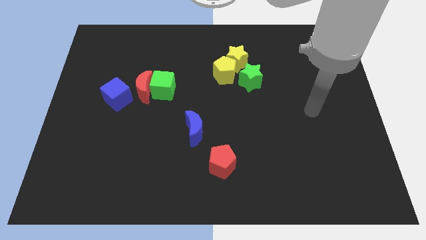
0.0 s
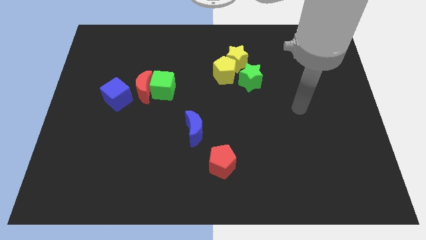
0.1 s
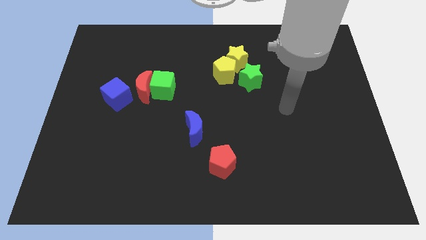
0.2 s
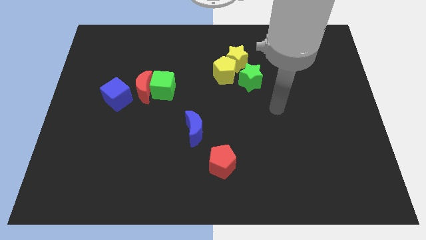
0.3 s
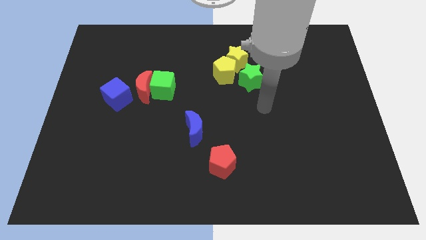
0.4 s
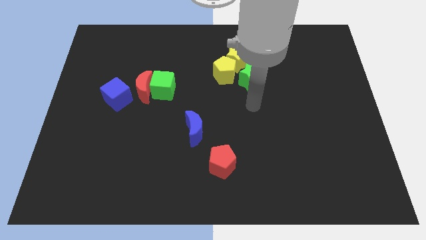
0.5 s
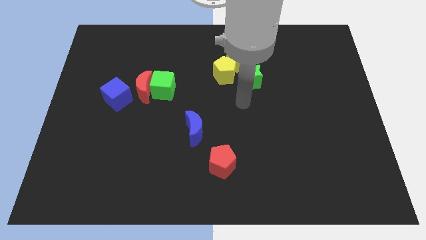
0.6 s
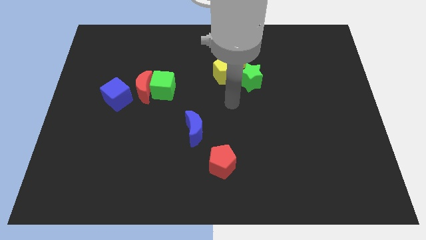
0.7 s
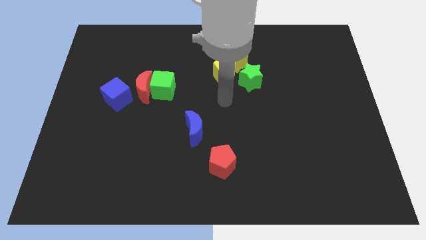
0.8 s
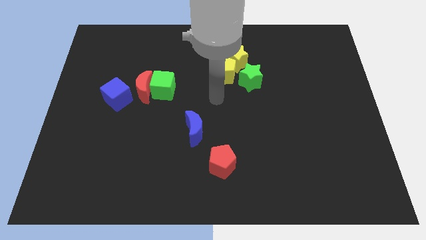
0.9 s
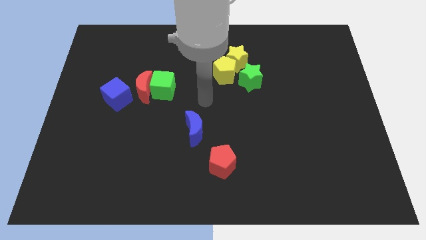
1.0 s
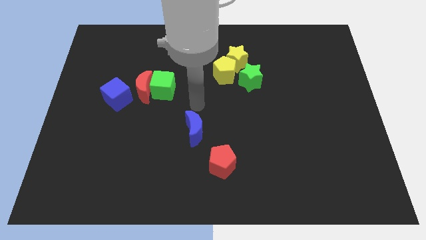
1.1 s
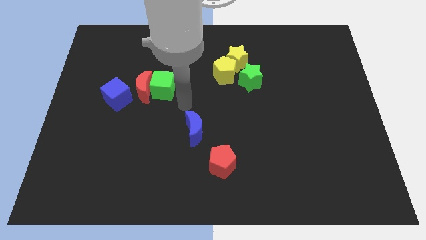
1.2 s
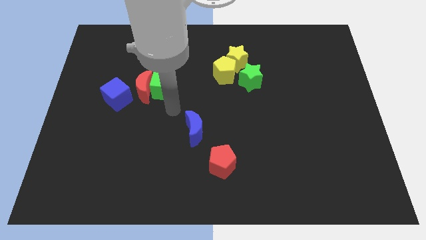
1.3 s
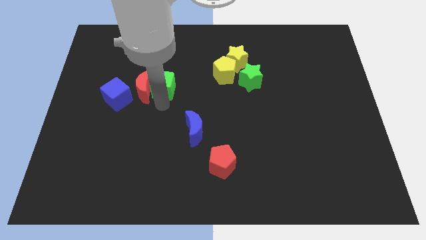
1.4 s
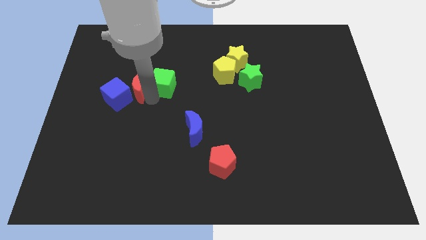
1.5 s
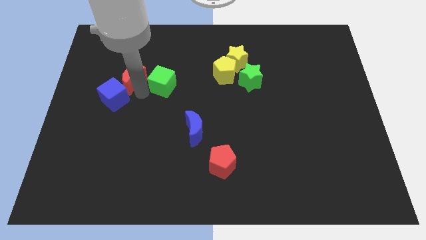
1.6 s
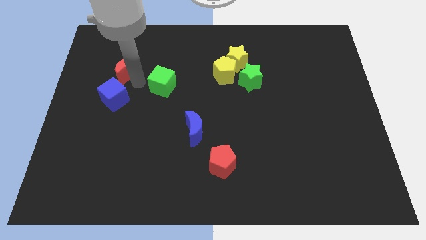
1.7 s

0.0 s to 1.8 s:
separate the green cube from the red moon

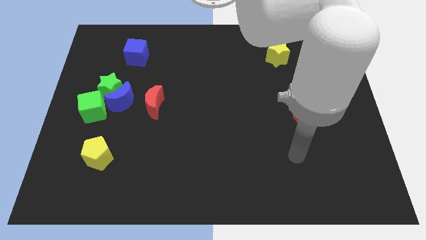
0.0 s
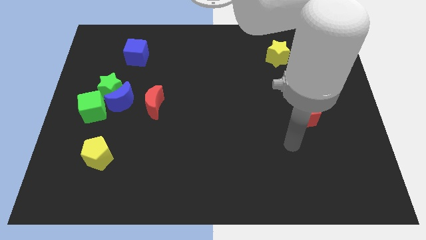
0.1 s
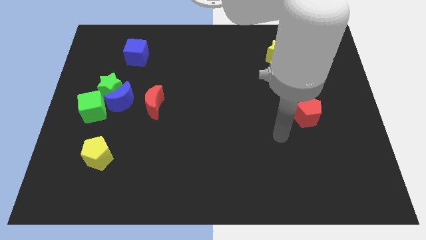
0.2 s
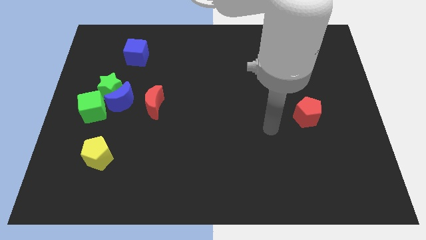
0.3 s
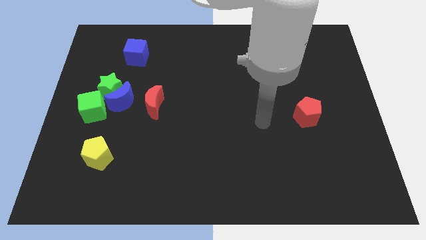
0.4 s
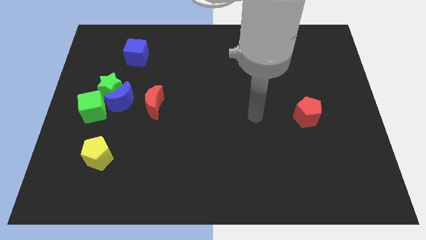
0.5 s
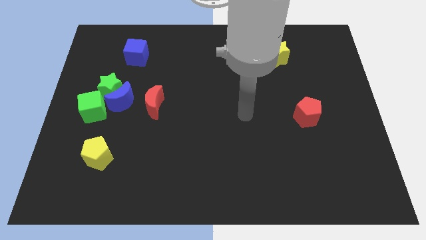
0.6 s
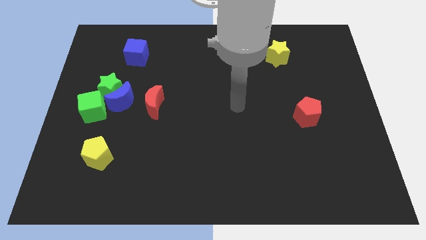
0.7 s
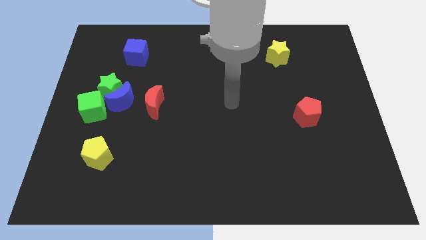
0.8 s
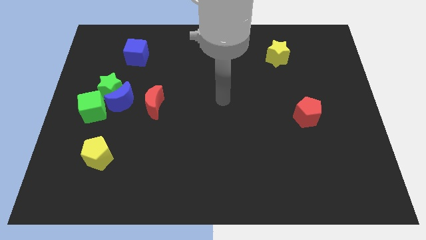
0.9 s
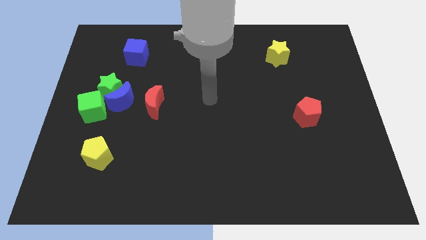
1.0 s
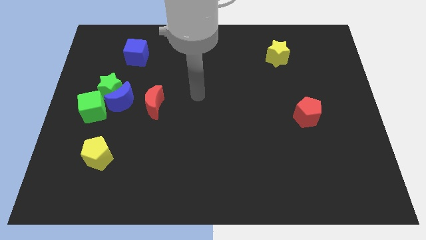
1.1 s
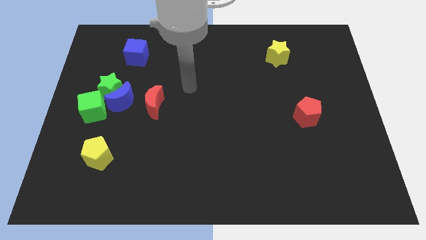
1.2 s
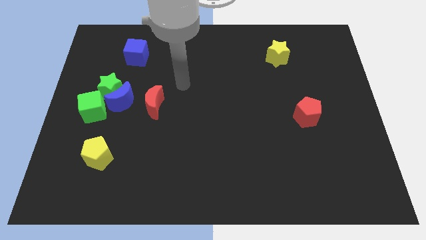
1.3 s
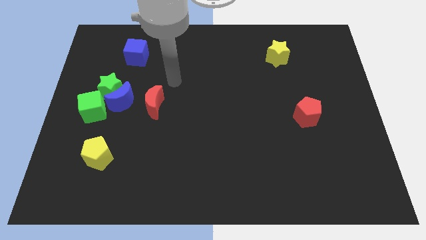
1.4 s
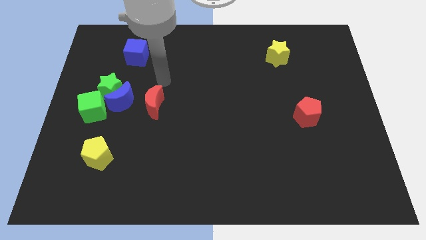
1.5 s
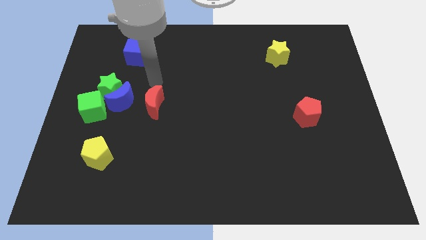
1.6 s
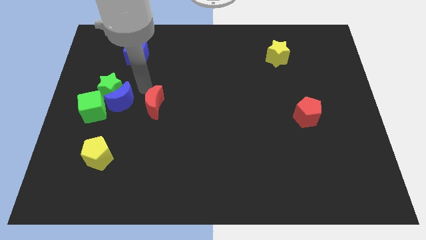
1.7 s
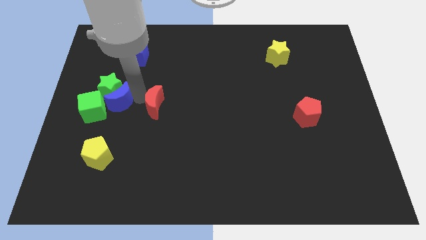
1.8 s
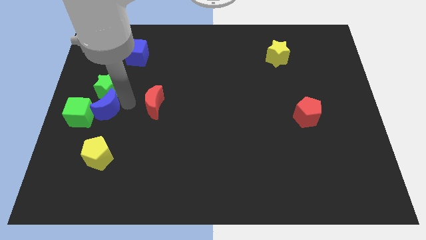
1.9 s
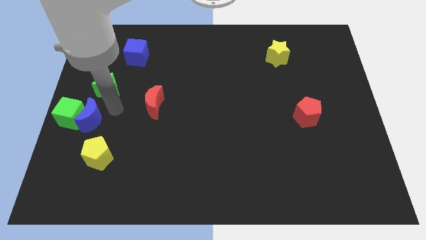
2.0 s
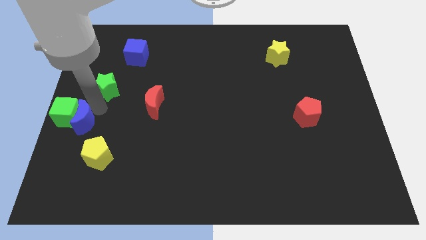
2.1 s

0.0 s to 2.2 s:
move the green star away from the blue moon and green cube

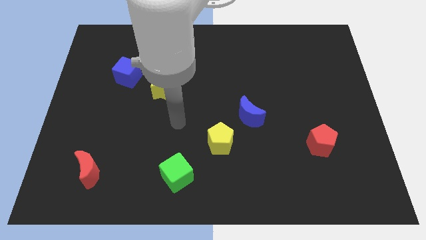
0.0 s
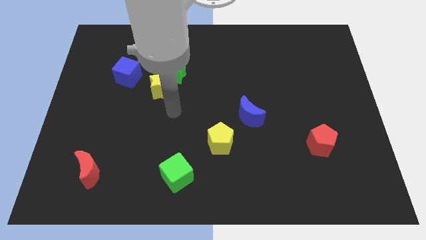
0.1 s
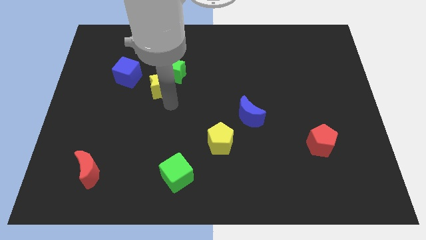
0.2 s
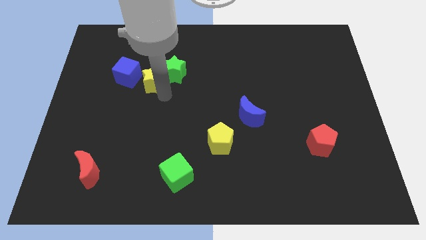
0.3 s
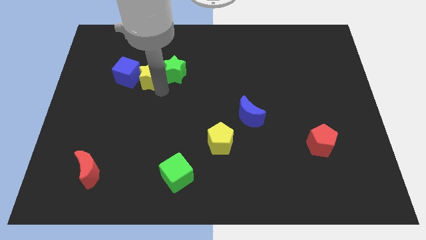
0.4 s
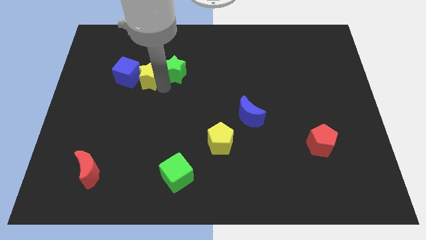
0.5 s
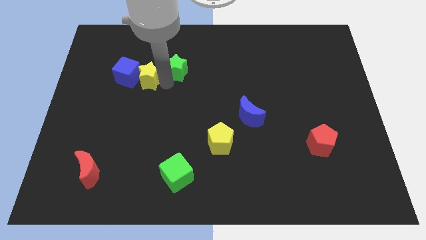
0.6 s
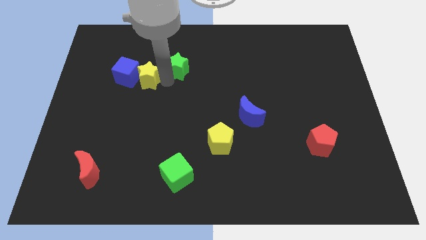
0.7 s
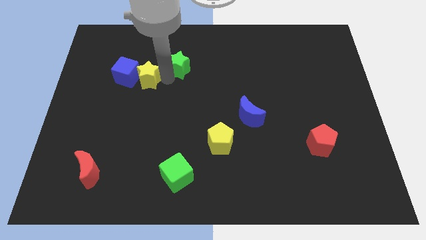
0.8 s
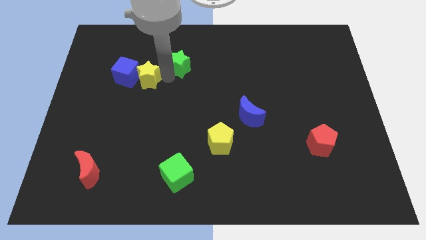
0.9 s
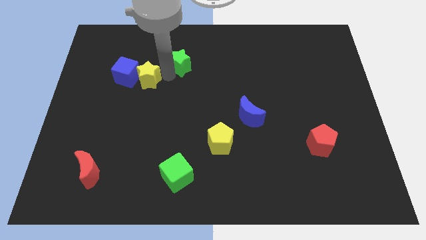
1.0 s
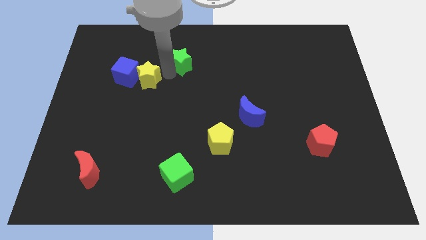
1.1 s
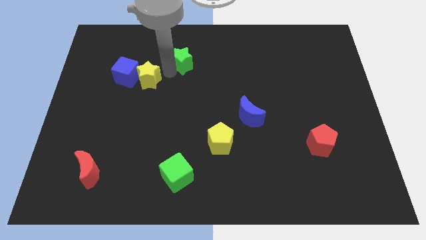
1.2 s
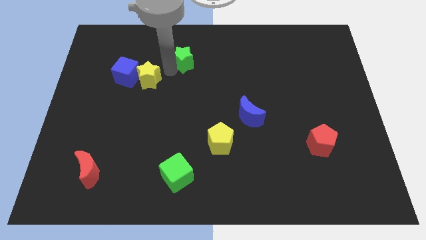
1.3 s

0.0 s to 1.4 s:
separate the green star from the yellow star

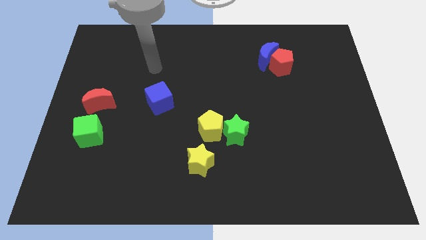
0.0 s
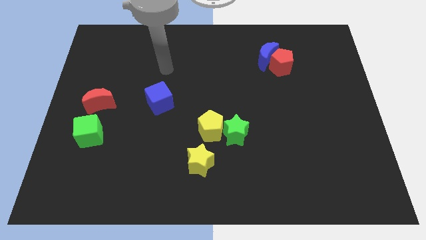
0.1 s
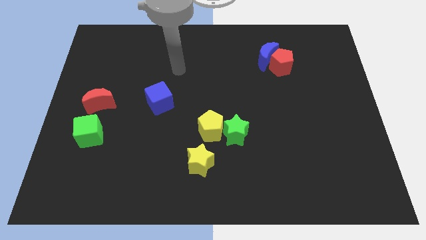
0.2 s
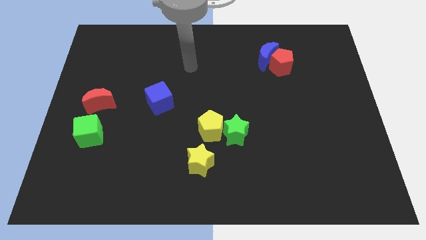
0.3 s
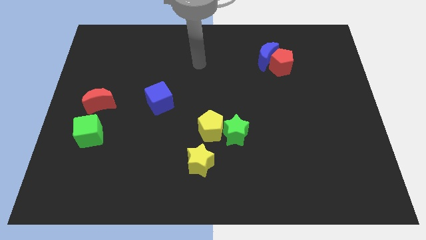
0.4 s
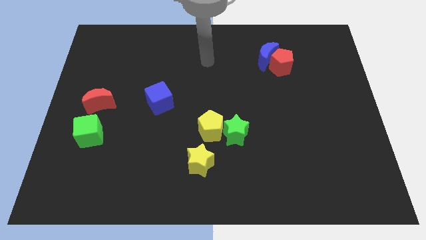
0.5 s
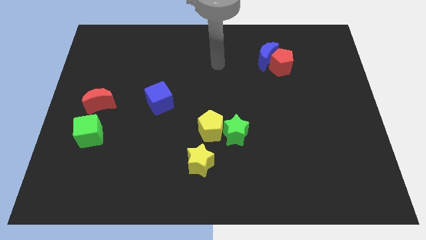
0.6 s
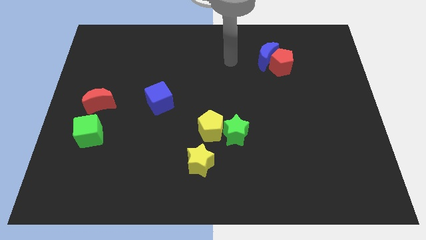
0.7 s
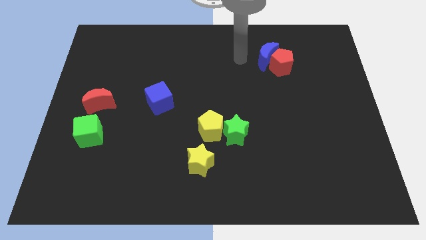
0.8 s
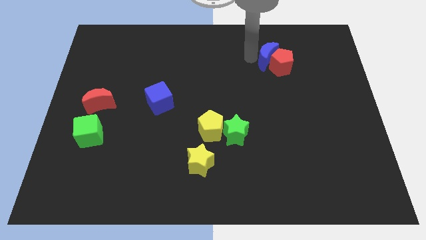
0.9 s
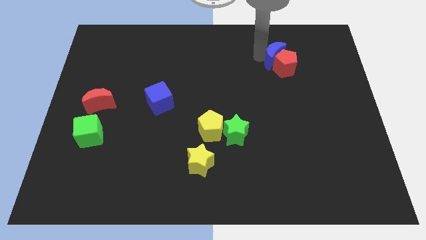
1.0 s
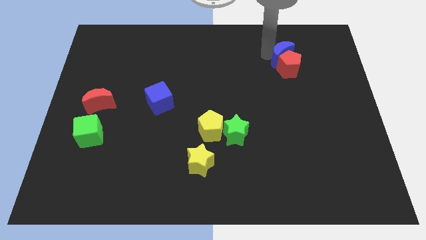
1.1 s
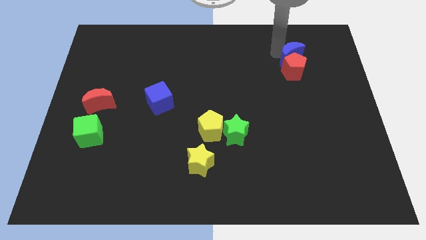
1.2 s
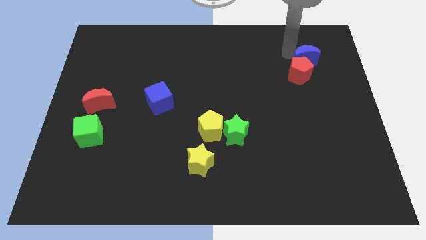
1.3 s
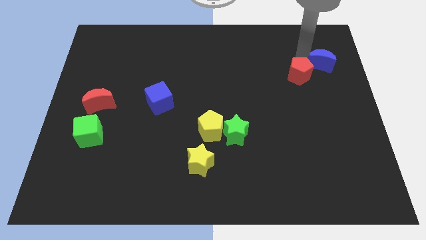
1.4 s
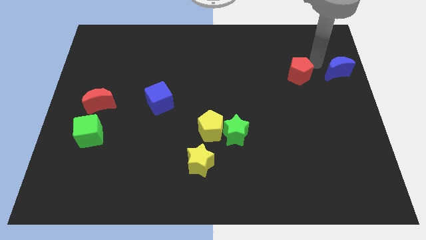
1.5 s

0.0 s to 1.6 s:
move the red pentagon away from the blue moon

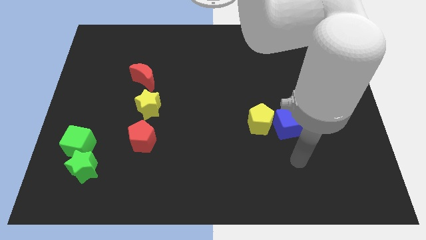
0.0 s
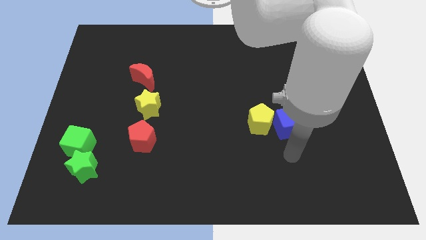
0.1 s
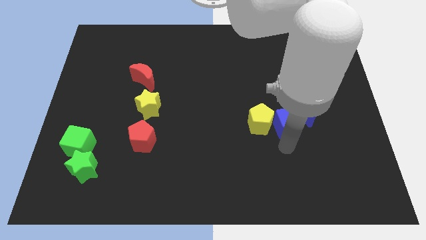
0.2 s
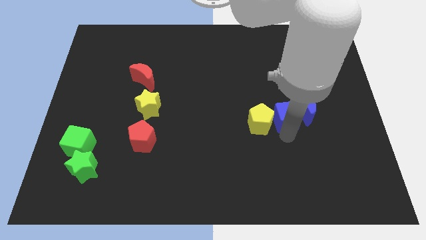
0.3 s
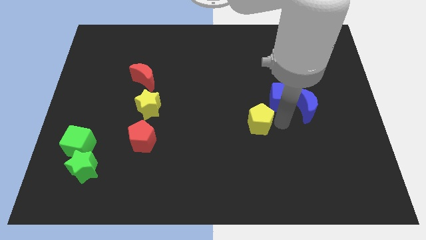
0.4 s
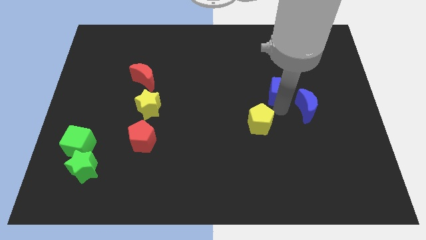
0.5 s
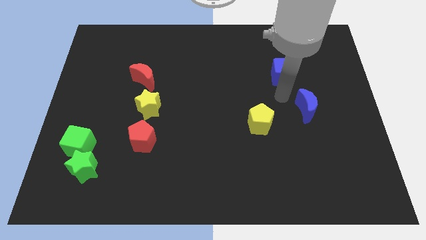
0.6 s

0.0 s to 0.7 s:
pull the blue moon apart from the blue cube

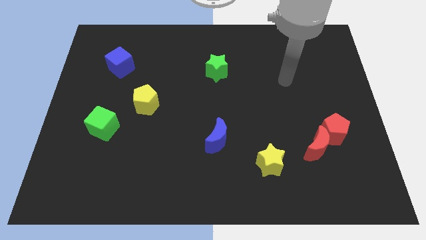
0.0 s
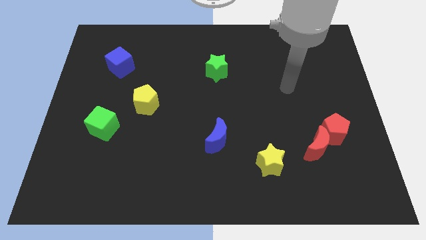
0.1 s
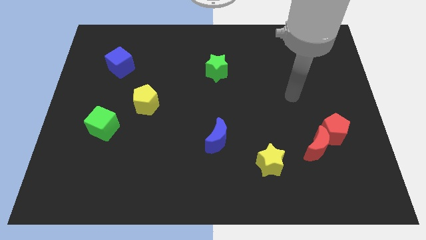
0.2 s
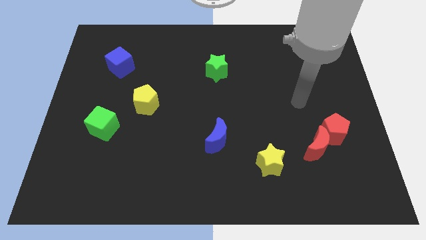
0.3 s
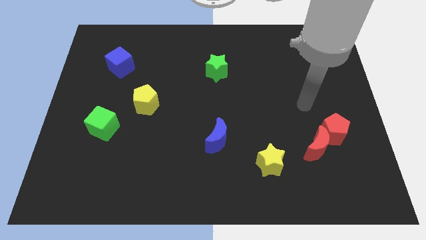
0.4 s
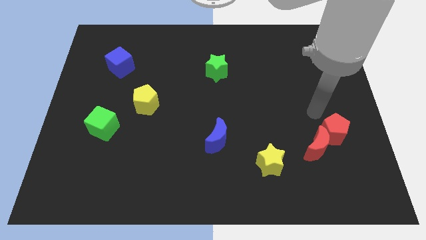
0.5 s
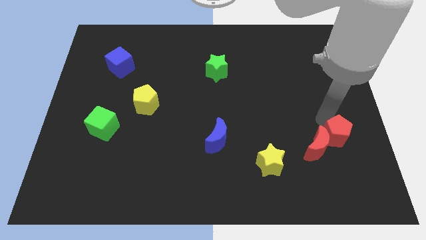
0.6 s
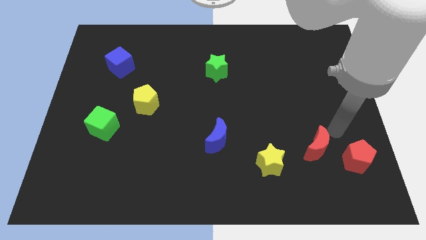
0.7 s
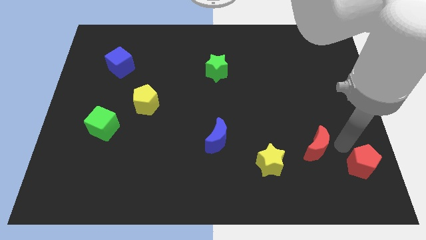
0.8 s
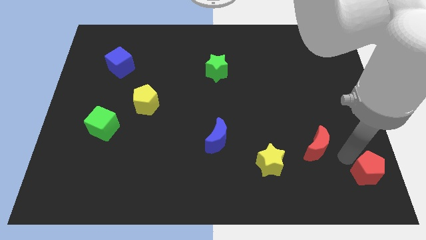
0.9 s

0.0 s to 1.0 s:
separate the red moon from the red pentagon

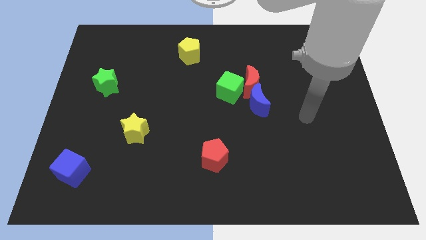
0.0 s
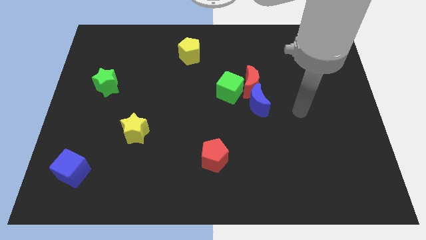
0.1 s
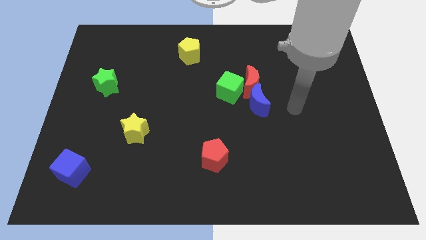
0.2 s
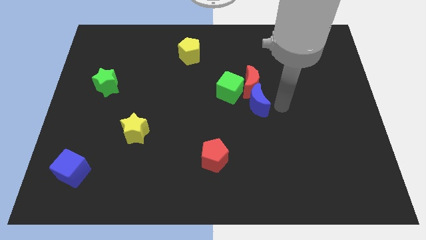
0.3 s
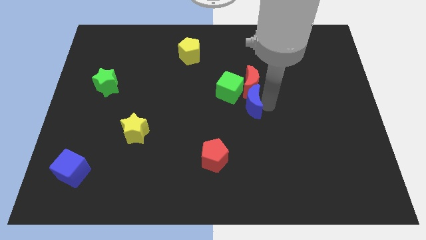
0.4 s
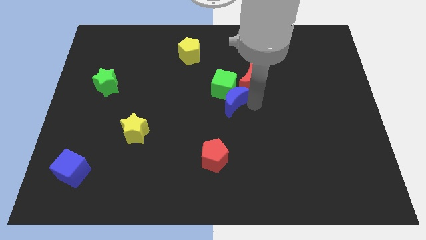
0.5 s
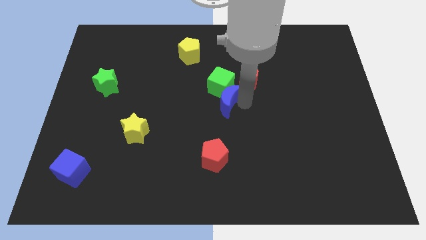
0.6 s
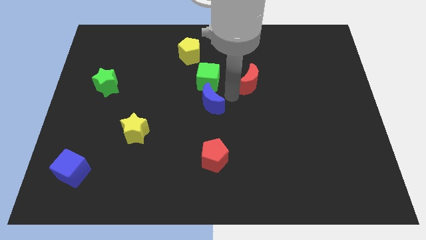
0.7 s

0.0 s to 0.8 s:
move the red moon away from the green cube and blue moon
